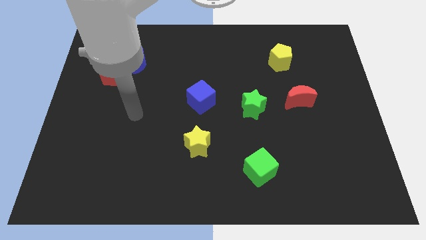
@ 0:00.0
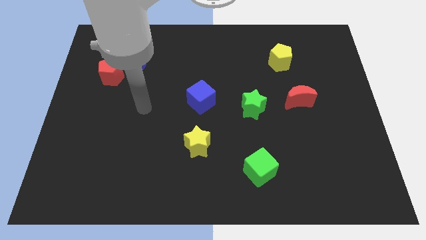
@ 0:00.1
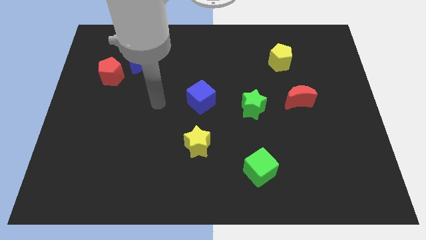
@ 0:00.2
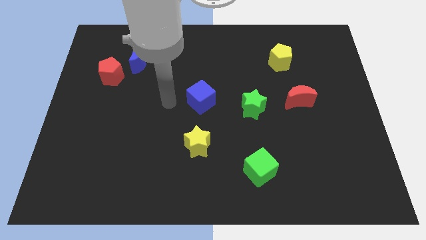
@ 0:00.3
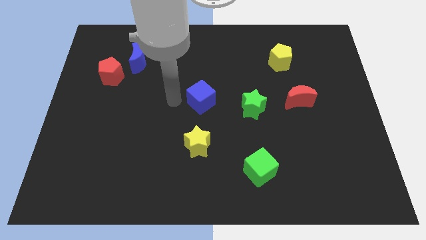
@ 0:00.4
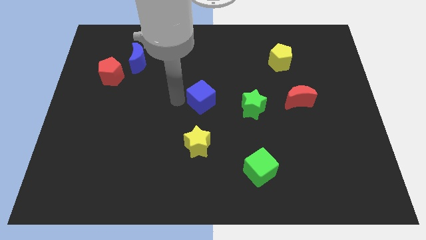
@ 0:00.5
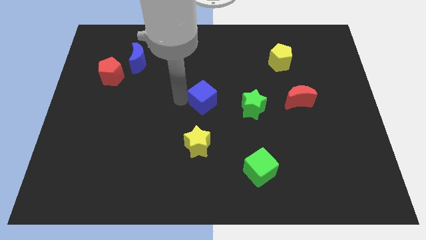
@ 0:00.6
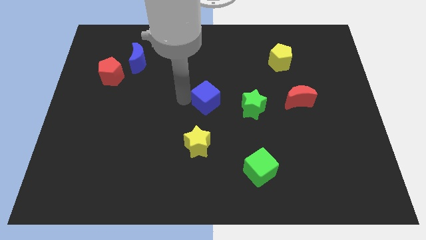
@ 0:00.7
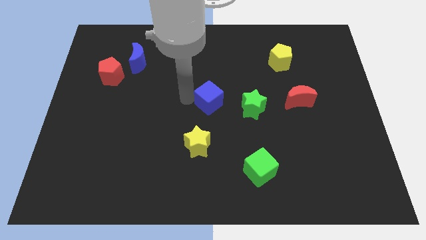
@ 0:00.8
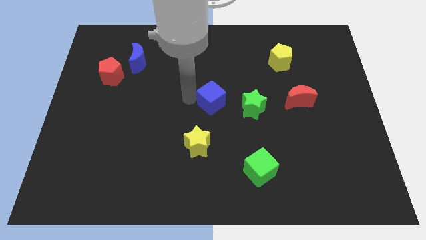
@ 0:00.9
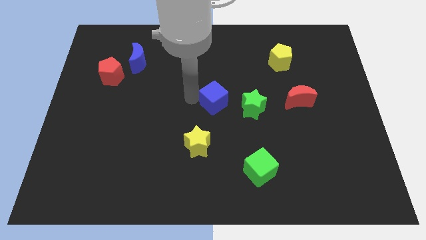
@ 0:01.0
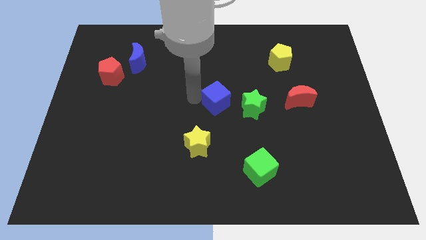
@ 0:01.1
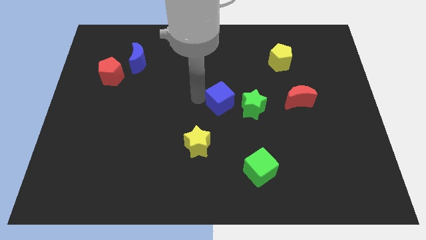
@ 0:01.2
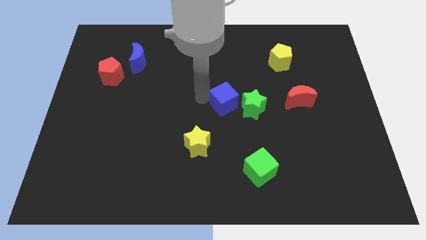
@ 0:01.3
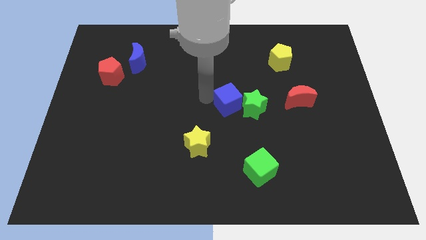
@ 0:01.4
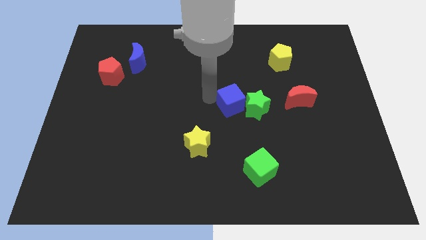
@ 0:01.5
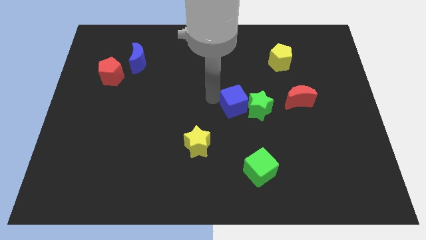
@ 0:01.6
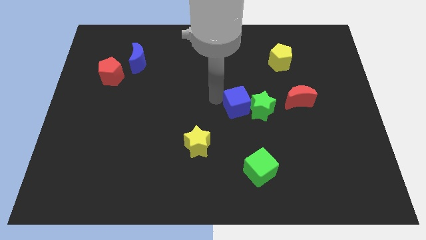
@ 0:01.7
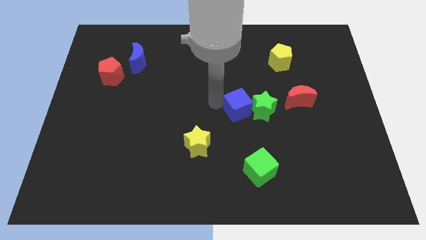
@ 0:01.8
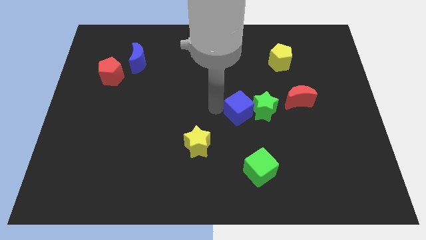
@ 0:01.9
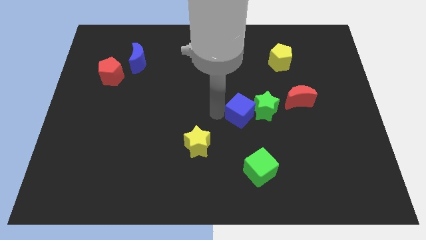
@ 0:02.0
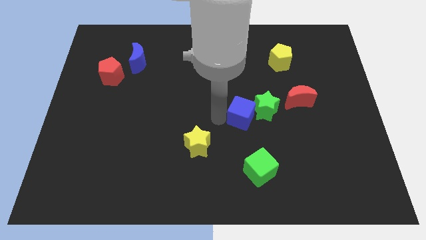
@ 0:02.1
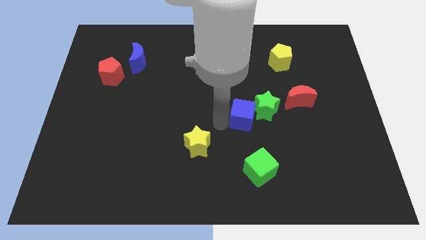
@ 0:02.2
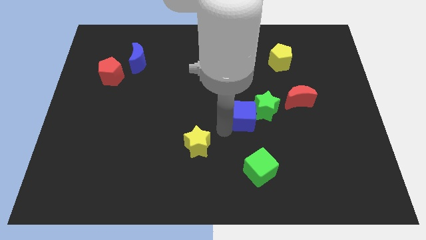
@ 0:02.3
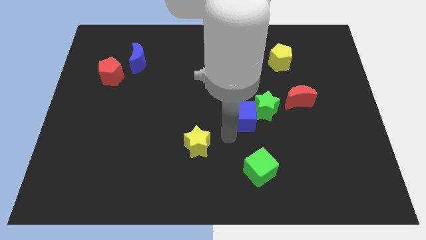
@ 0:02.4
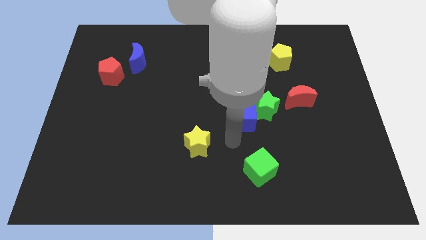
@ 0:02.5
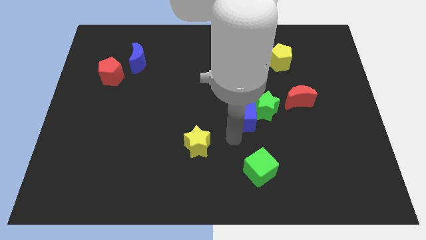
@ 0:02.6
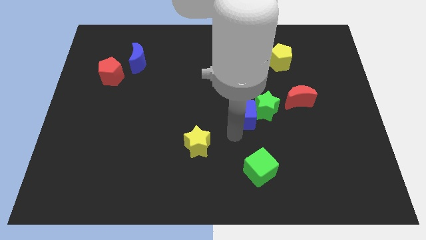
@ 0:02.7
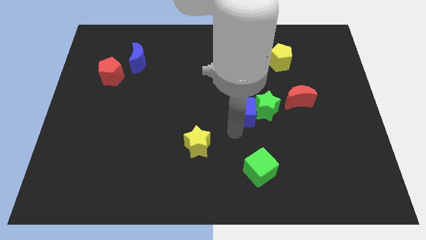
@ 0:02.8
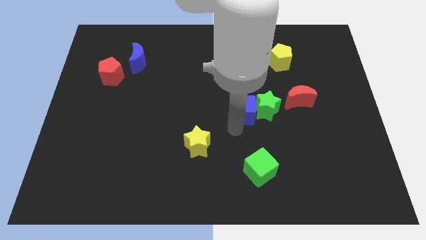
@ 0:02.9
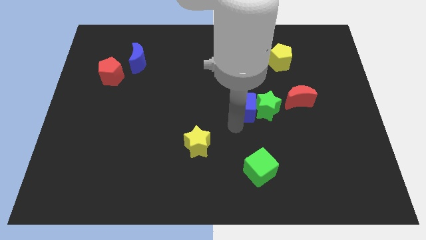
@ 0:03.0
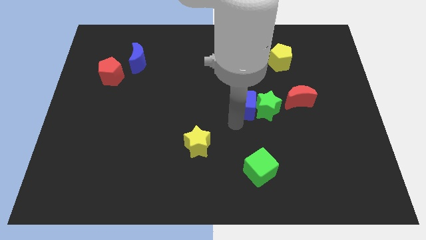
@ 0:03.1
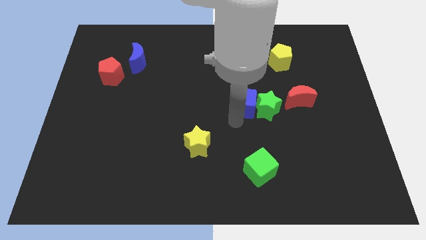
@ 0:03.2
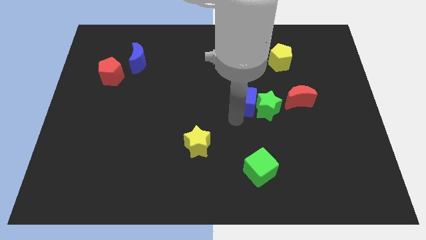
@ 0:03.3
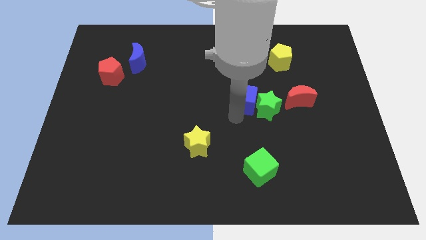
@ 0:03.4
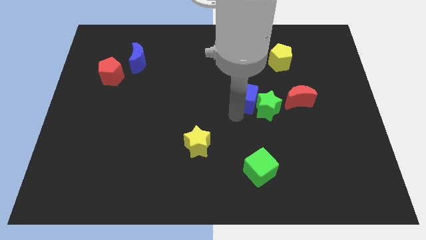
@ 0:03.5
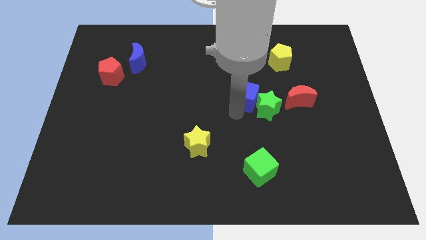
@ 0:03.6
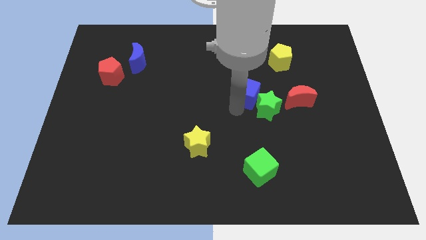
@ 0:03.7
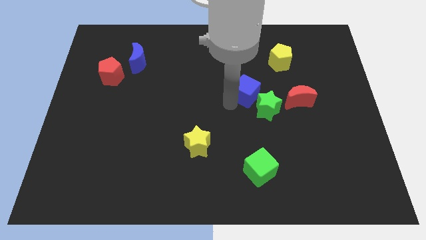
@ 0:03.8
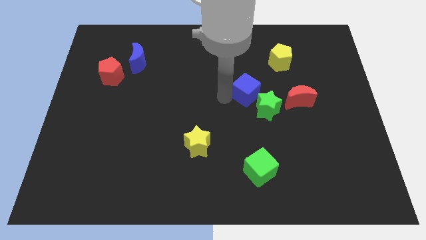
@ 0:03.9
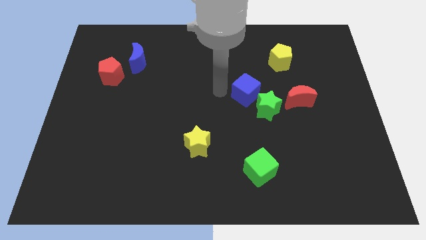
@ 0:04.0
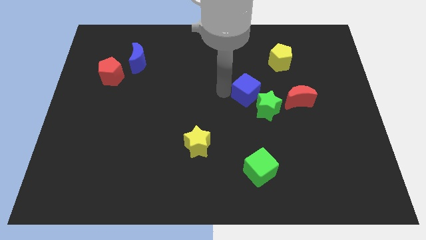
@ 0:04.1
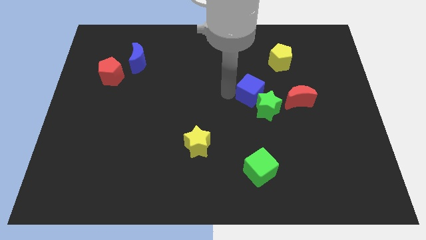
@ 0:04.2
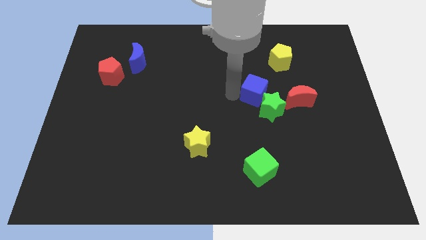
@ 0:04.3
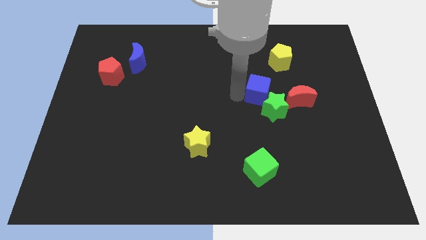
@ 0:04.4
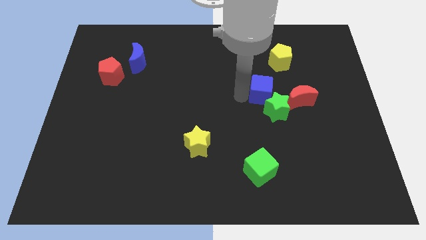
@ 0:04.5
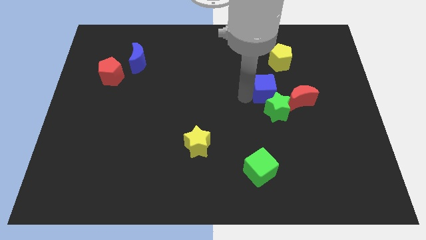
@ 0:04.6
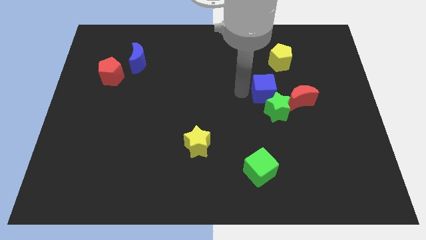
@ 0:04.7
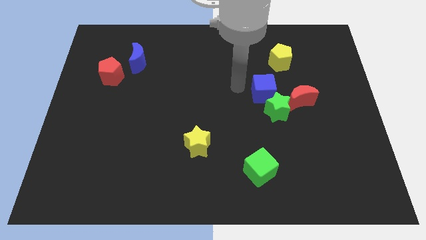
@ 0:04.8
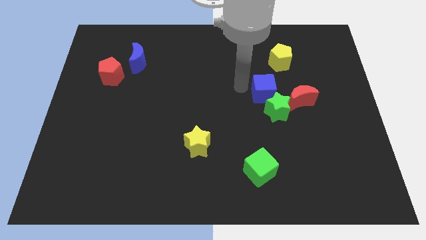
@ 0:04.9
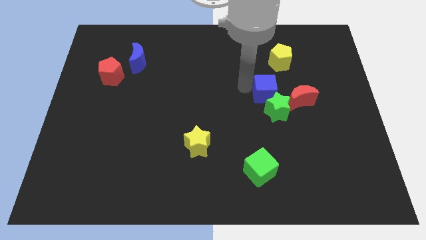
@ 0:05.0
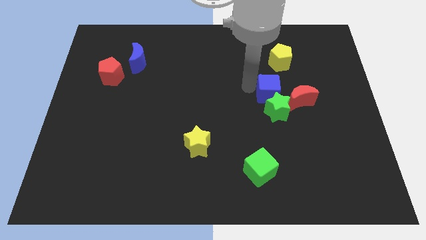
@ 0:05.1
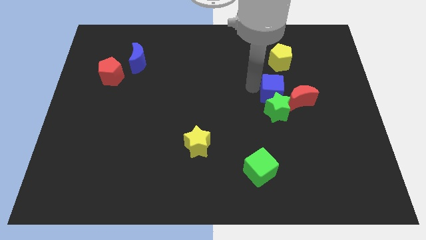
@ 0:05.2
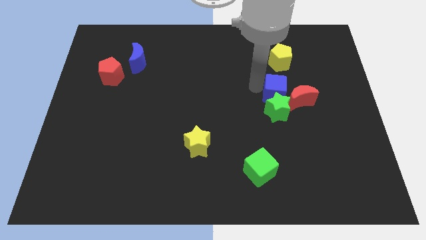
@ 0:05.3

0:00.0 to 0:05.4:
slide the blue cube towards the red moon

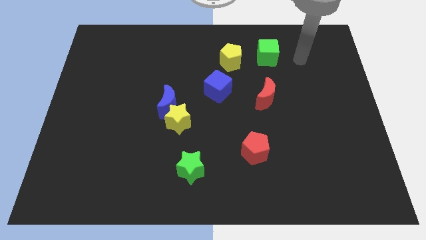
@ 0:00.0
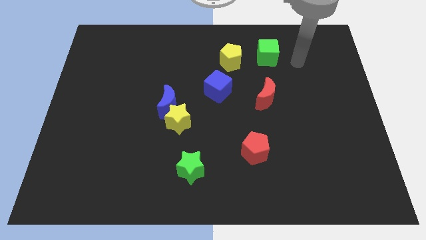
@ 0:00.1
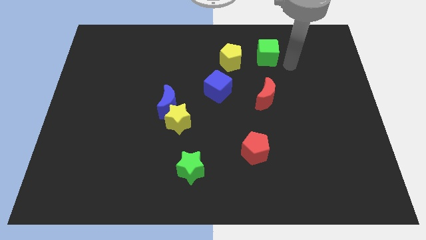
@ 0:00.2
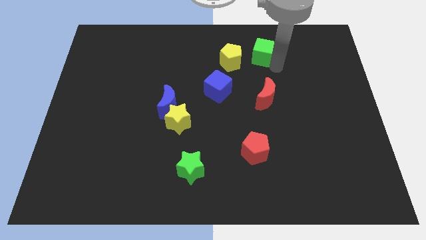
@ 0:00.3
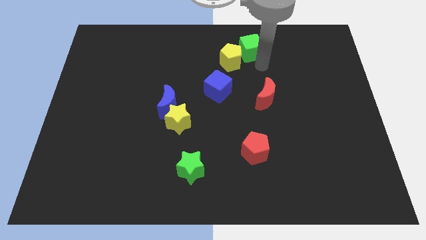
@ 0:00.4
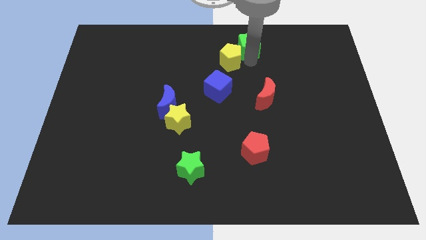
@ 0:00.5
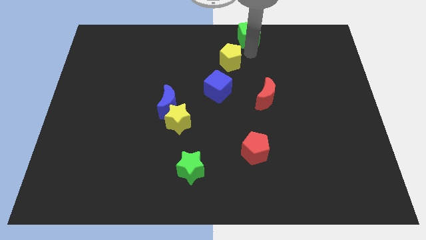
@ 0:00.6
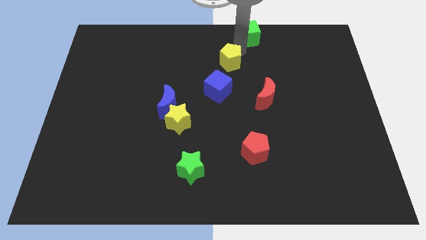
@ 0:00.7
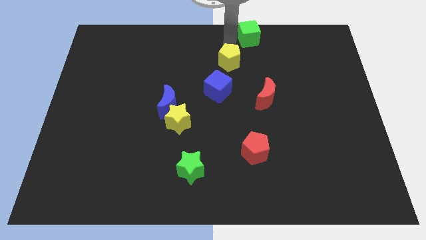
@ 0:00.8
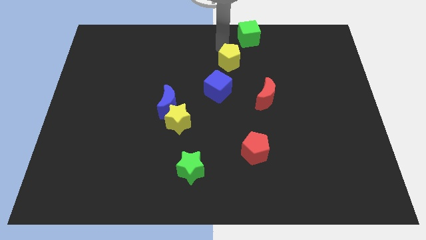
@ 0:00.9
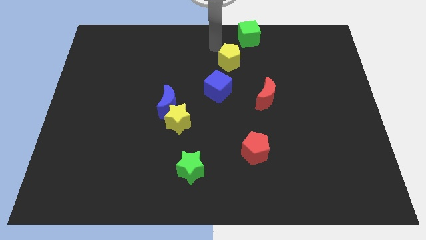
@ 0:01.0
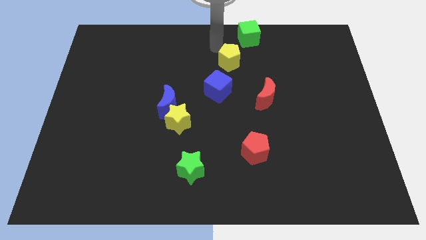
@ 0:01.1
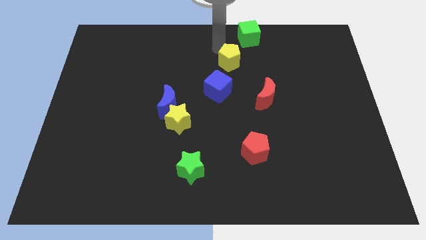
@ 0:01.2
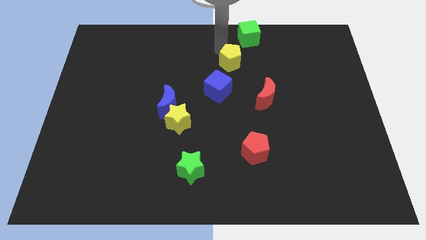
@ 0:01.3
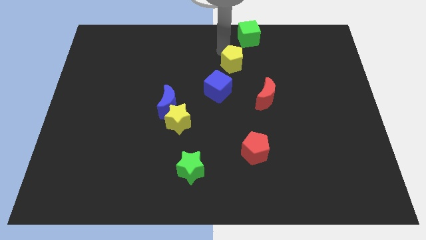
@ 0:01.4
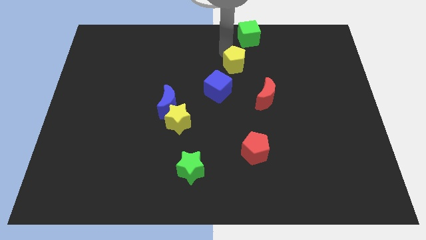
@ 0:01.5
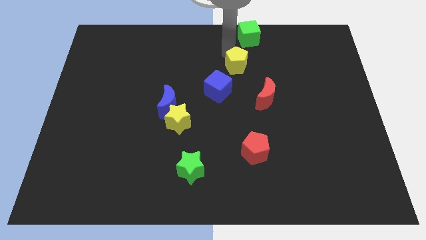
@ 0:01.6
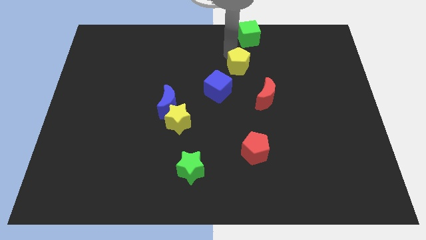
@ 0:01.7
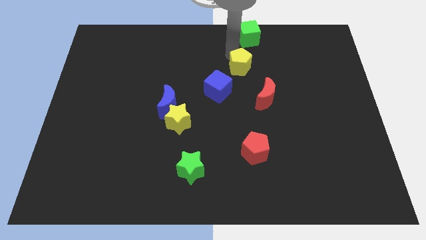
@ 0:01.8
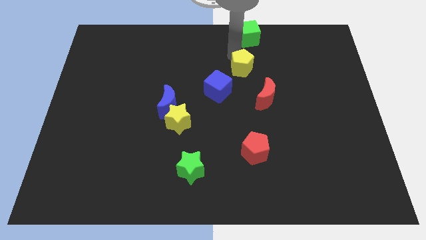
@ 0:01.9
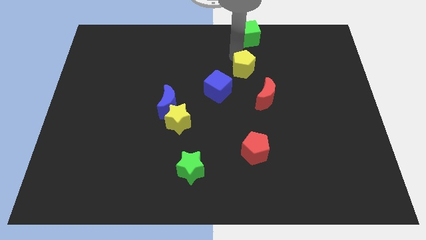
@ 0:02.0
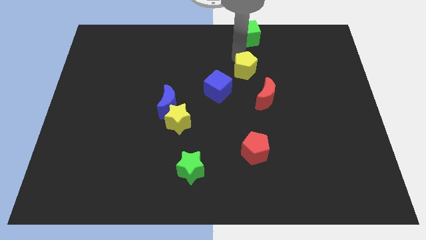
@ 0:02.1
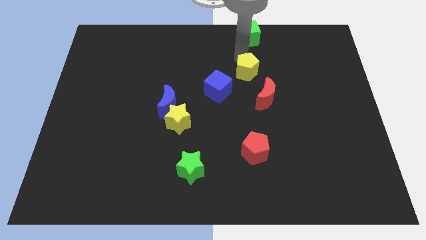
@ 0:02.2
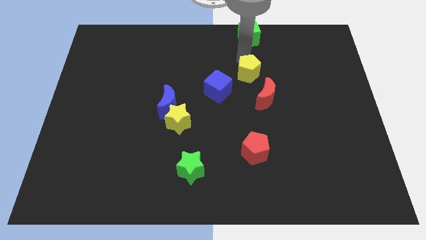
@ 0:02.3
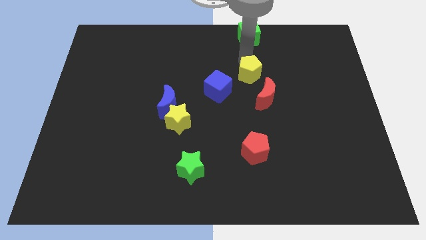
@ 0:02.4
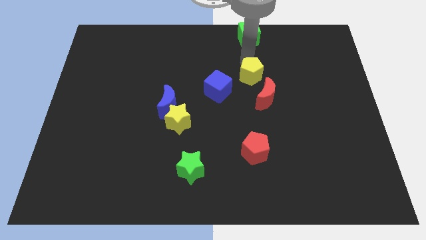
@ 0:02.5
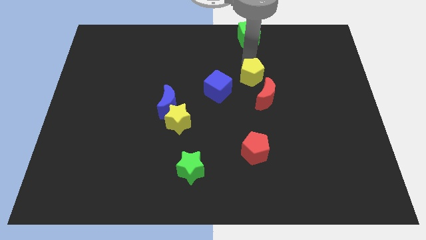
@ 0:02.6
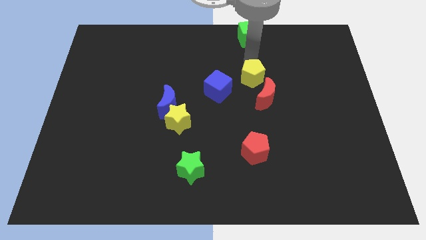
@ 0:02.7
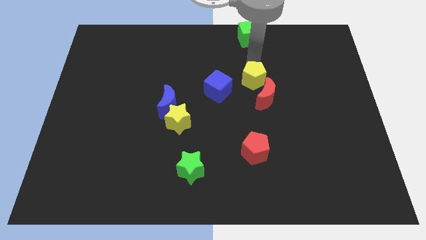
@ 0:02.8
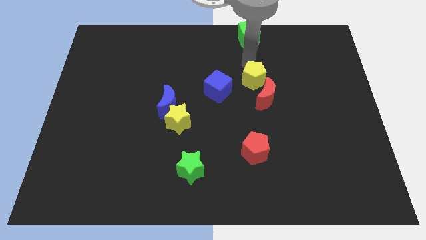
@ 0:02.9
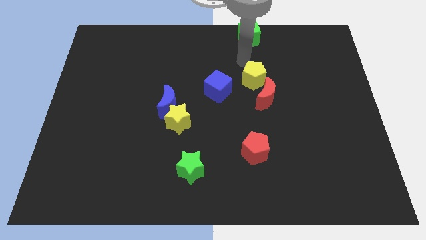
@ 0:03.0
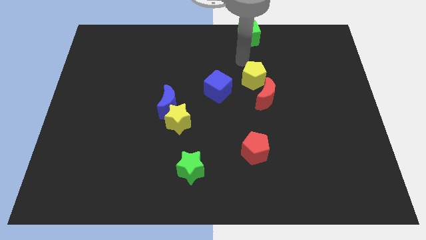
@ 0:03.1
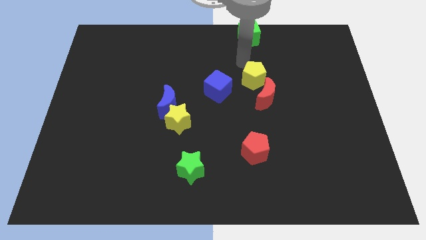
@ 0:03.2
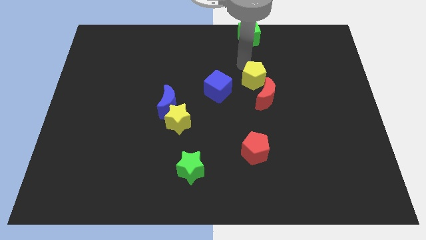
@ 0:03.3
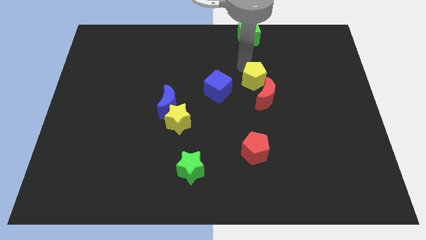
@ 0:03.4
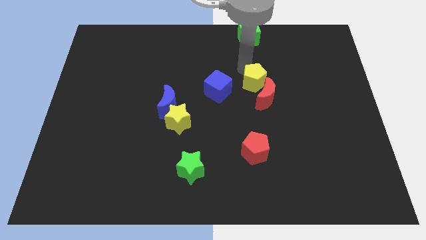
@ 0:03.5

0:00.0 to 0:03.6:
push the yellow pentagon close to the red moon
